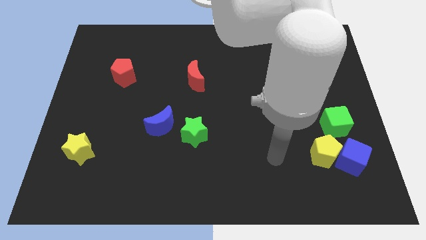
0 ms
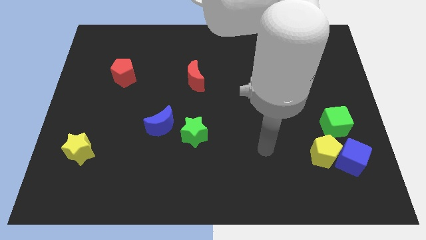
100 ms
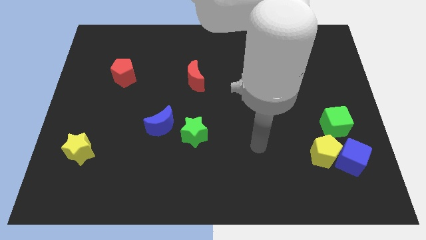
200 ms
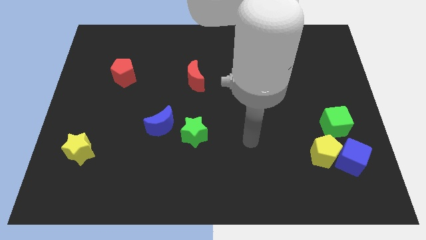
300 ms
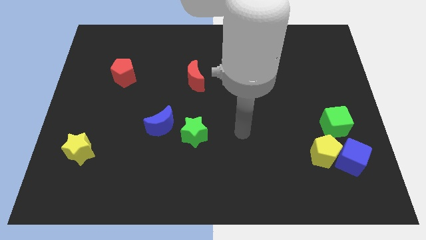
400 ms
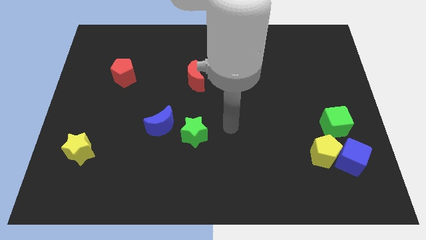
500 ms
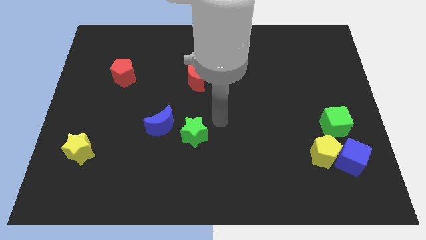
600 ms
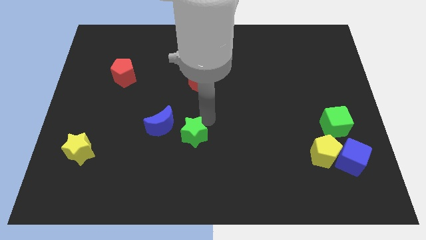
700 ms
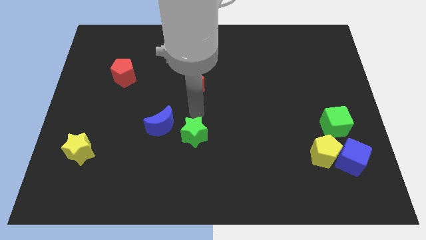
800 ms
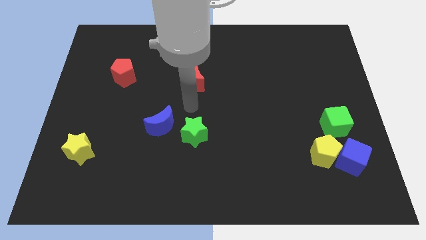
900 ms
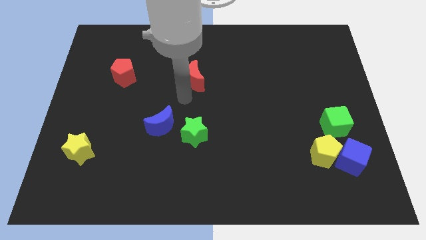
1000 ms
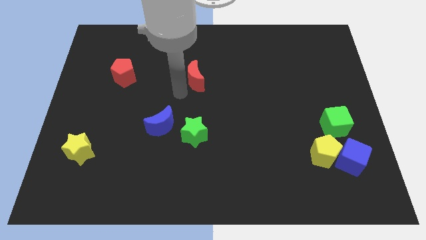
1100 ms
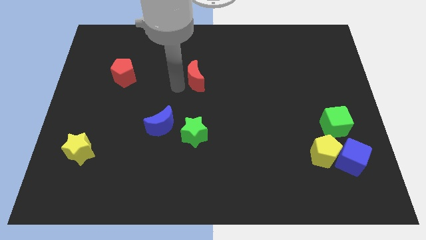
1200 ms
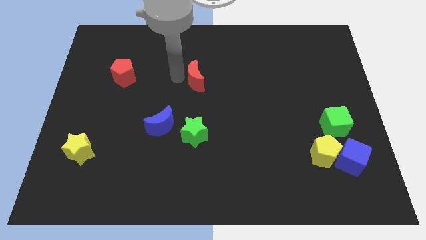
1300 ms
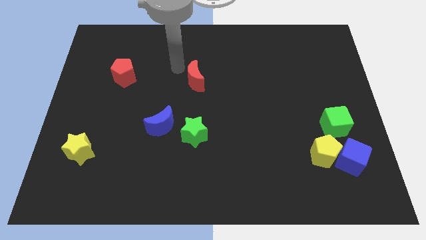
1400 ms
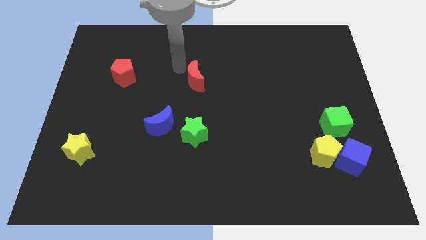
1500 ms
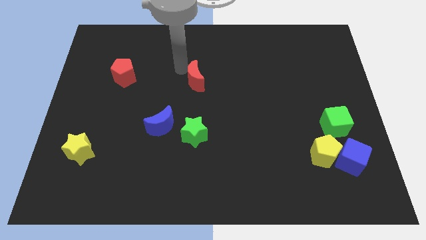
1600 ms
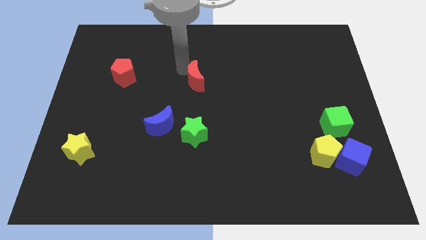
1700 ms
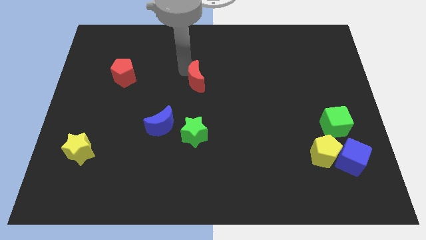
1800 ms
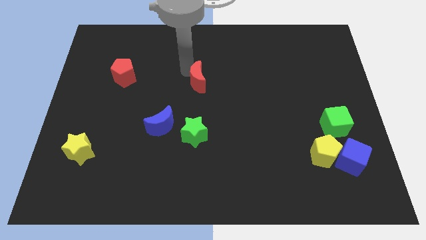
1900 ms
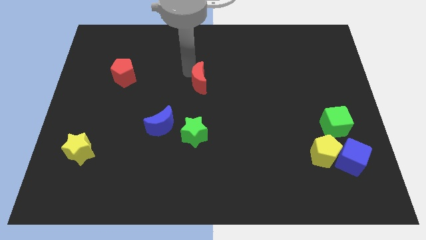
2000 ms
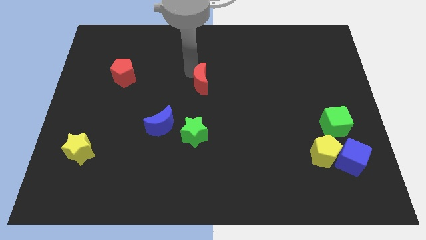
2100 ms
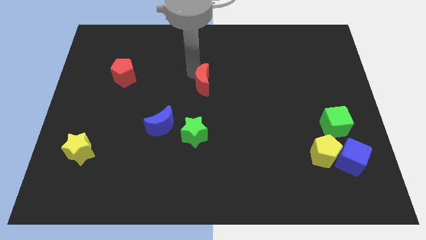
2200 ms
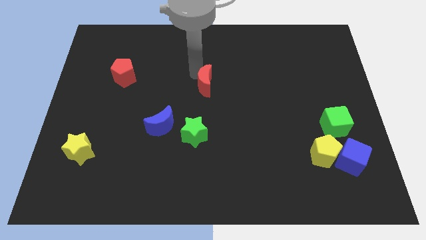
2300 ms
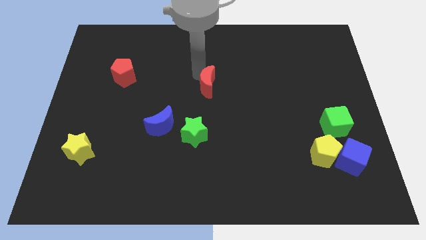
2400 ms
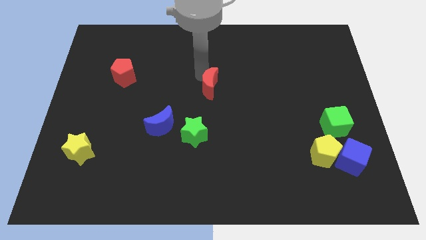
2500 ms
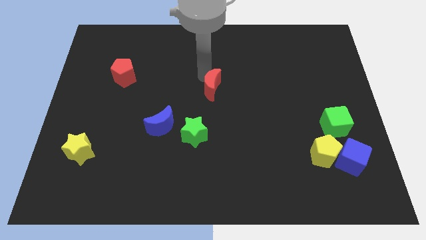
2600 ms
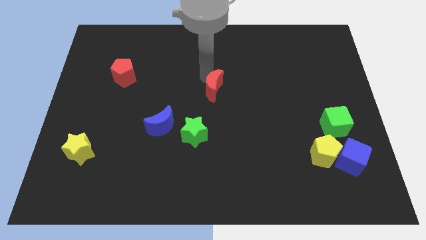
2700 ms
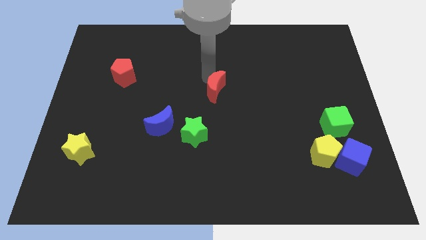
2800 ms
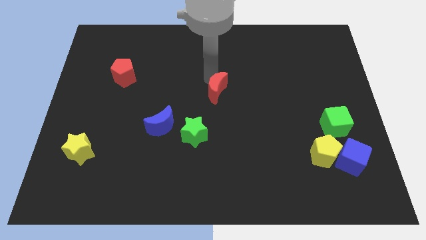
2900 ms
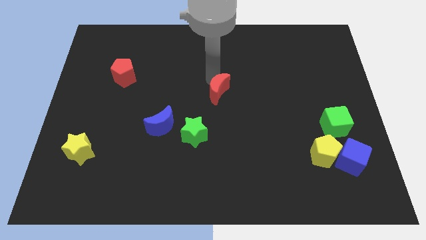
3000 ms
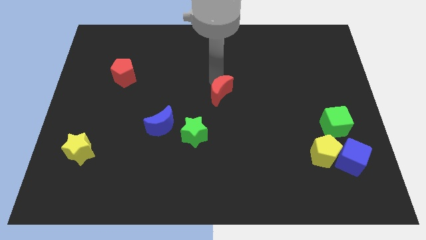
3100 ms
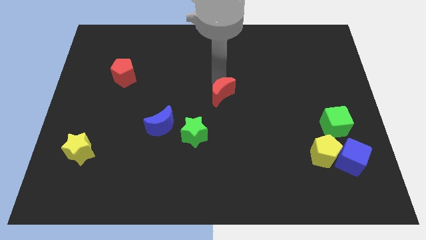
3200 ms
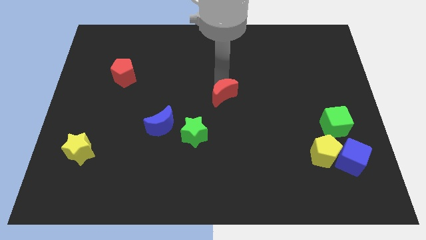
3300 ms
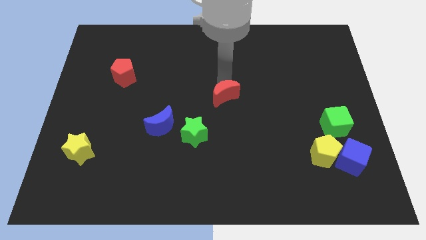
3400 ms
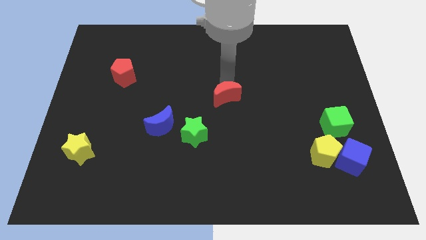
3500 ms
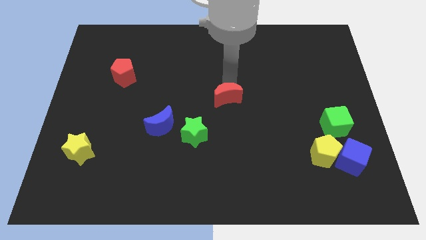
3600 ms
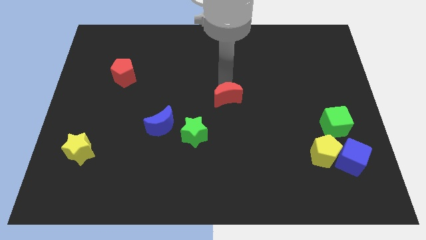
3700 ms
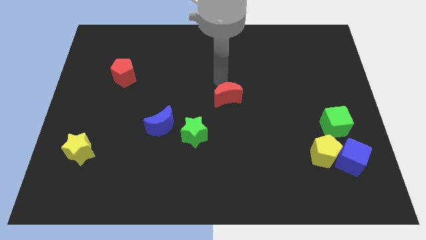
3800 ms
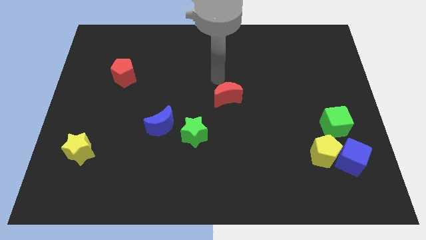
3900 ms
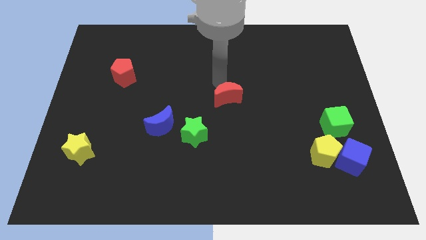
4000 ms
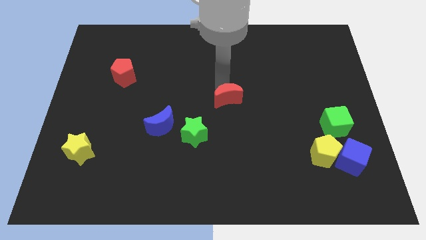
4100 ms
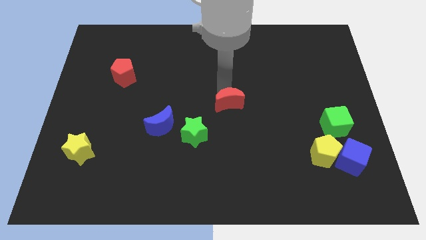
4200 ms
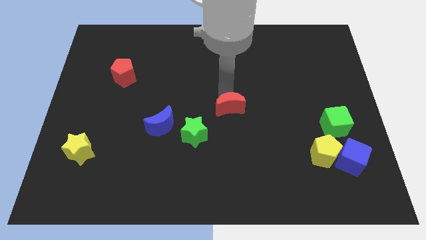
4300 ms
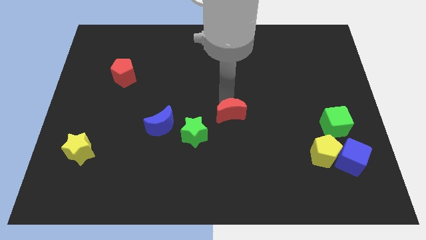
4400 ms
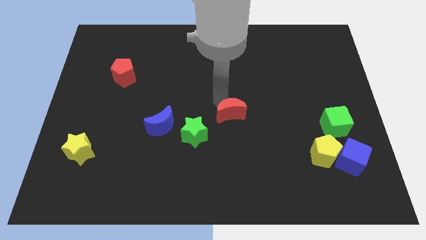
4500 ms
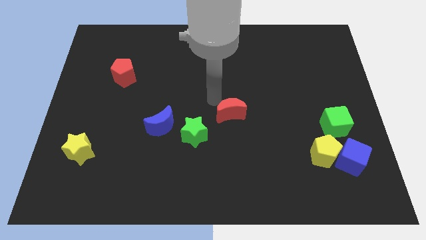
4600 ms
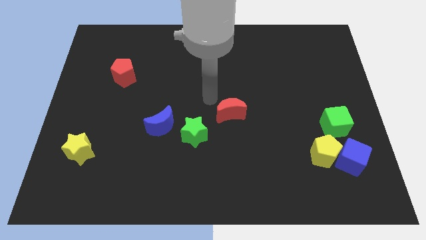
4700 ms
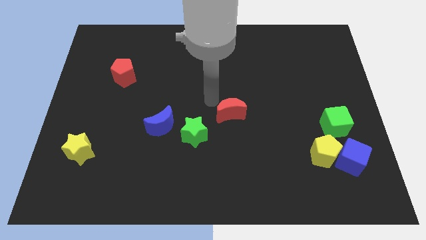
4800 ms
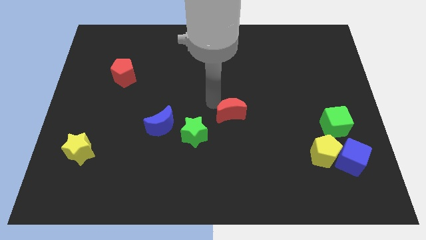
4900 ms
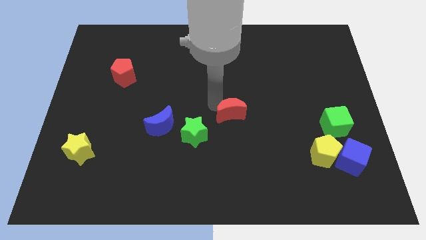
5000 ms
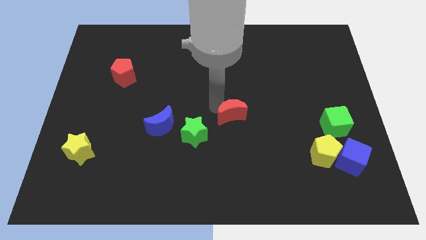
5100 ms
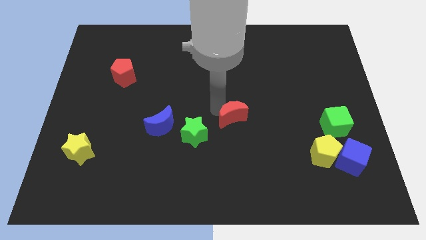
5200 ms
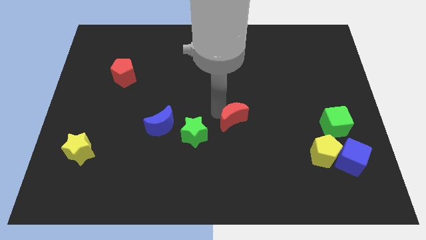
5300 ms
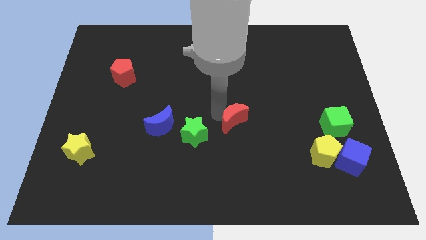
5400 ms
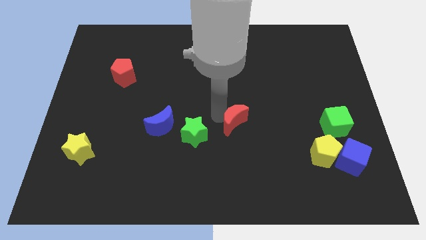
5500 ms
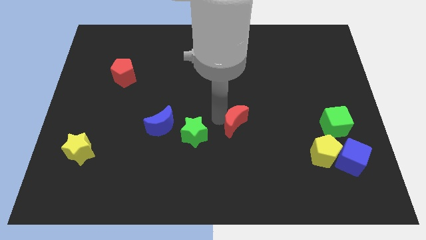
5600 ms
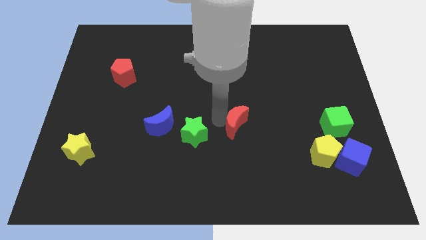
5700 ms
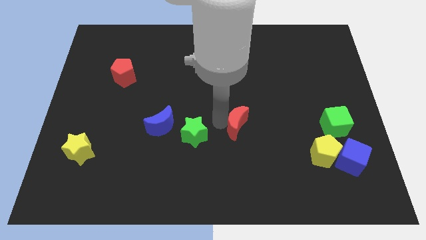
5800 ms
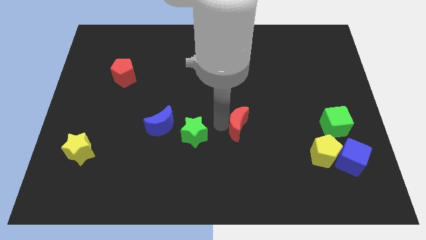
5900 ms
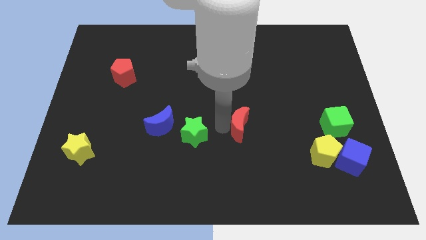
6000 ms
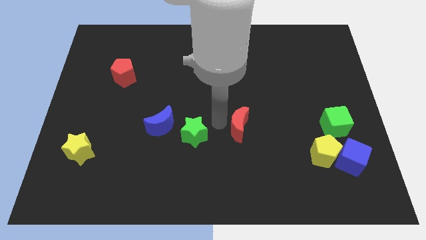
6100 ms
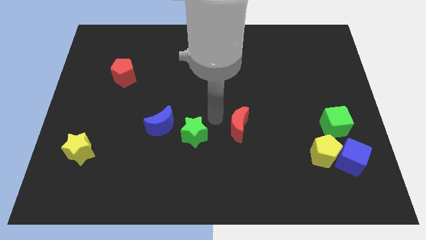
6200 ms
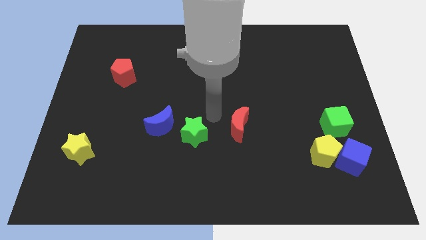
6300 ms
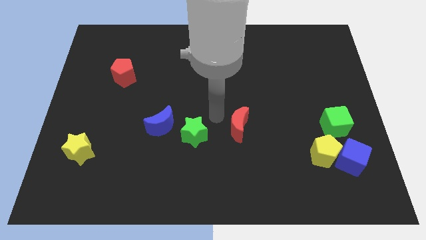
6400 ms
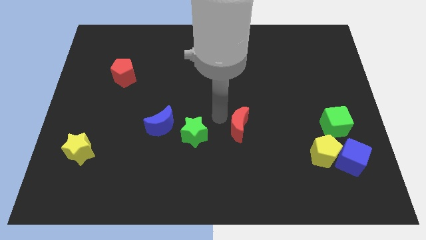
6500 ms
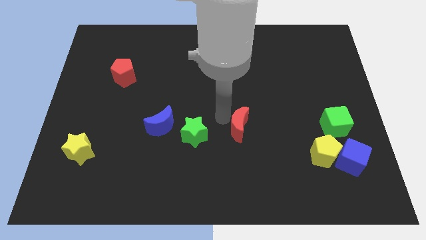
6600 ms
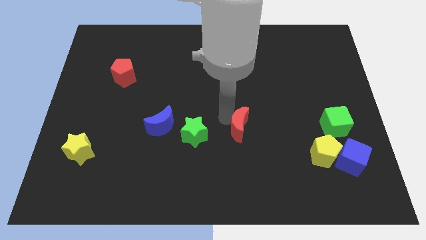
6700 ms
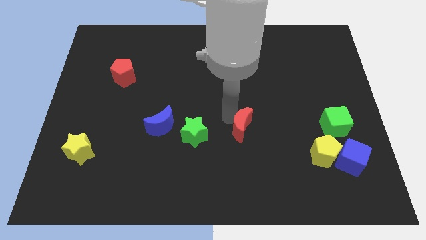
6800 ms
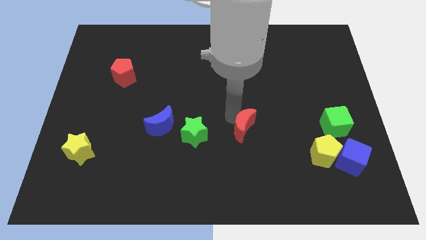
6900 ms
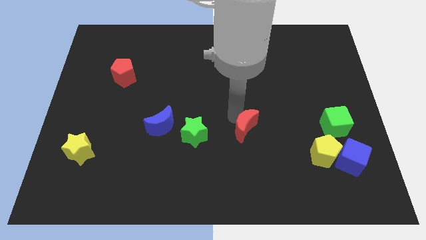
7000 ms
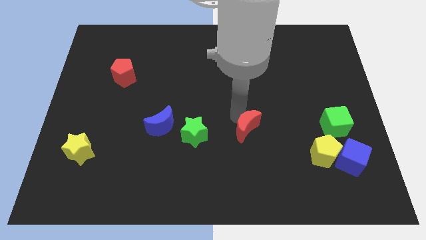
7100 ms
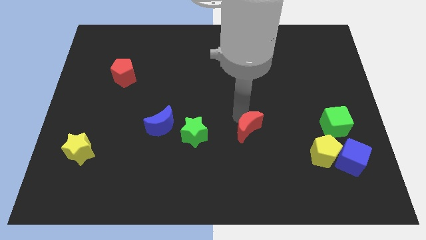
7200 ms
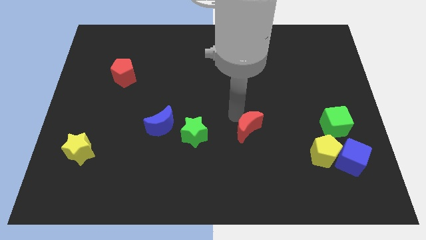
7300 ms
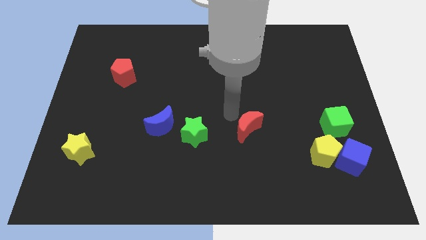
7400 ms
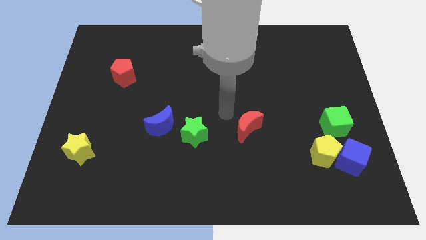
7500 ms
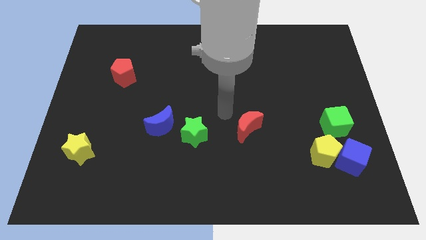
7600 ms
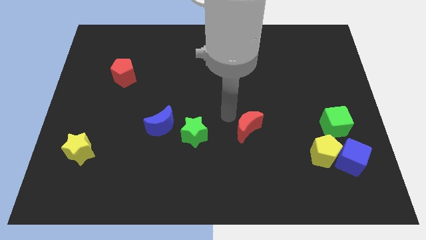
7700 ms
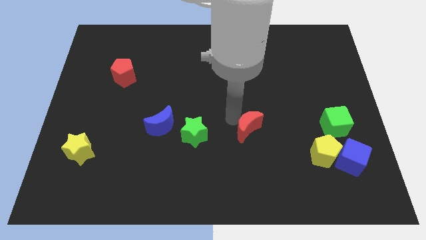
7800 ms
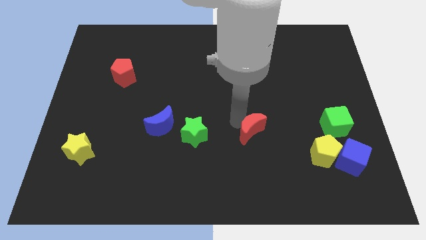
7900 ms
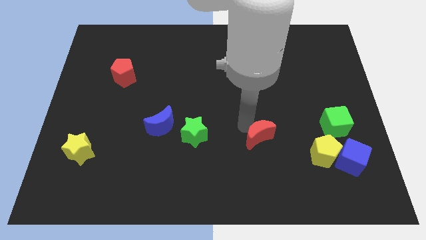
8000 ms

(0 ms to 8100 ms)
push the red moon left of the yellow pentagon
